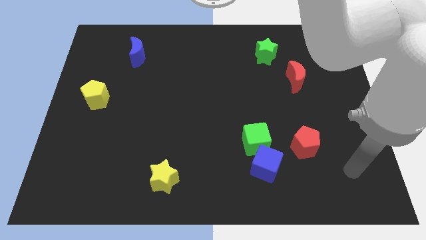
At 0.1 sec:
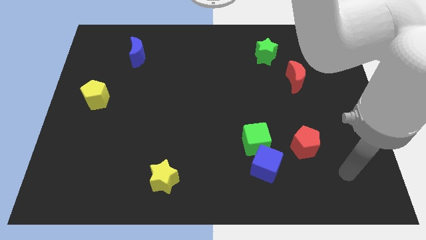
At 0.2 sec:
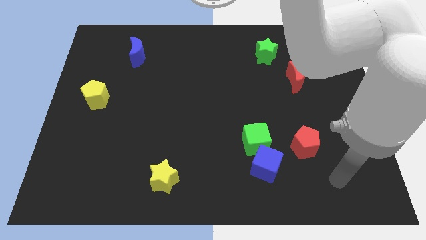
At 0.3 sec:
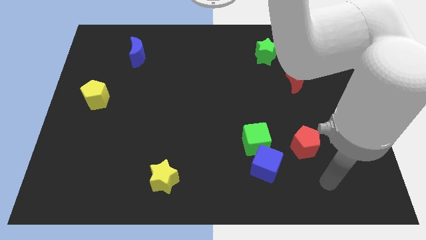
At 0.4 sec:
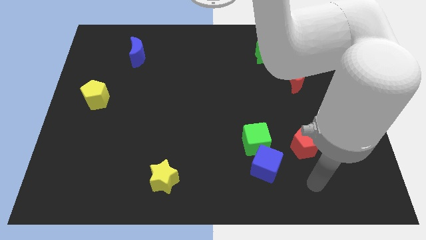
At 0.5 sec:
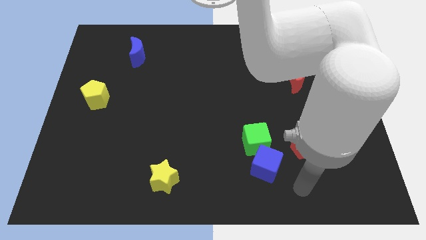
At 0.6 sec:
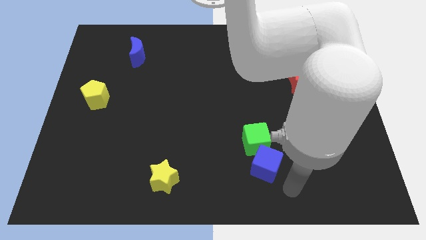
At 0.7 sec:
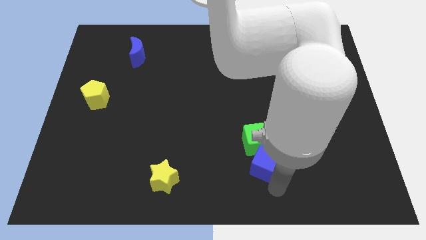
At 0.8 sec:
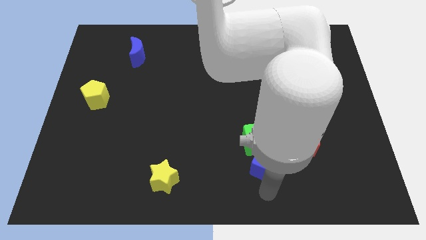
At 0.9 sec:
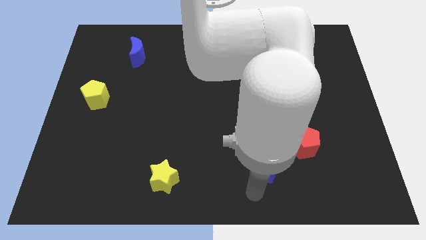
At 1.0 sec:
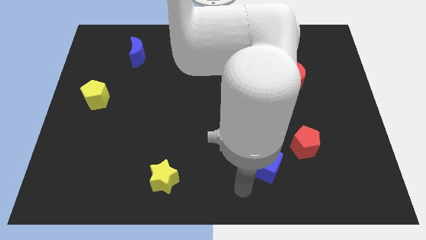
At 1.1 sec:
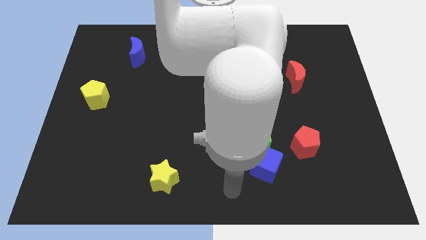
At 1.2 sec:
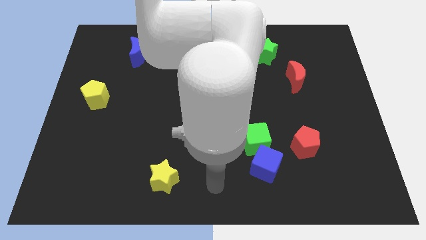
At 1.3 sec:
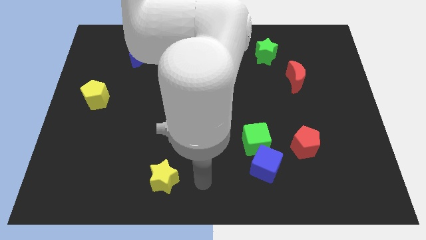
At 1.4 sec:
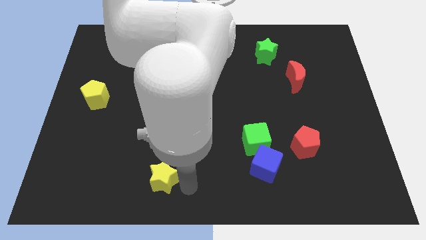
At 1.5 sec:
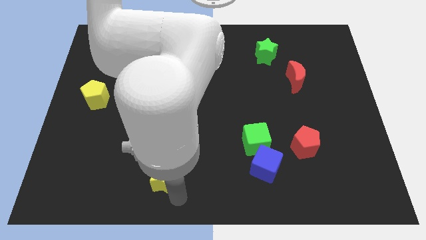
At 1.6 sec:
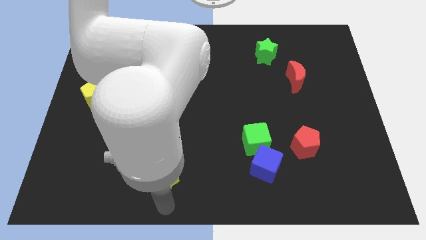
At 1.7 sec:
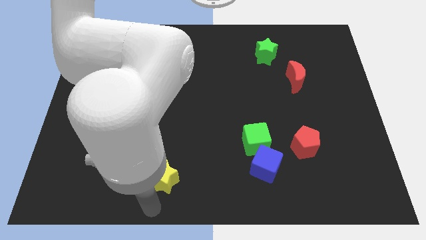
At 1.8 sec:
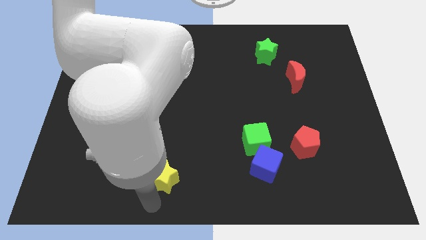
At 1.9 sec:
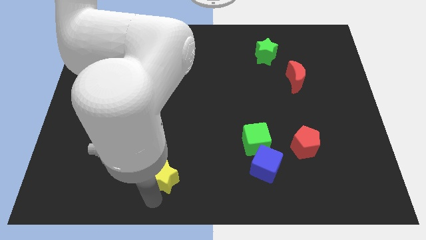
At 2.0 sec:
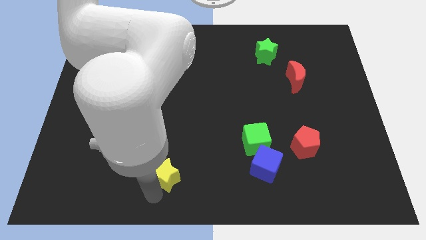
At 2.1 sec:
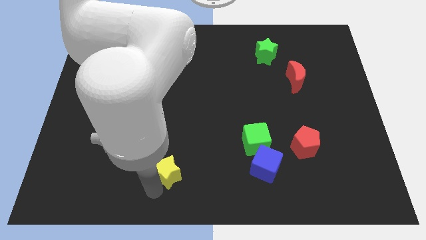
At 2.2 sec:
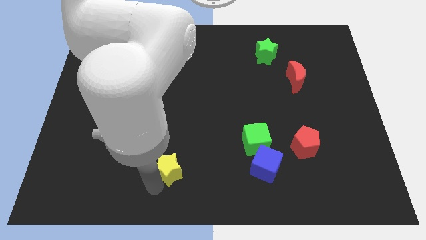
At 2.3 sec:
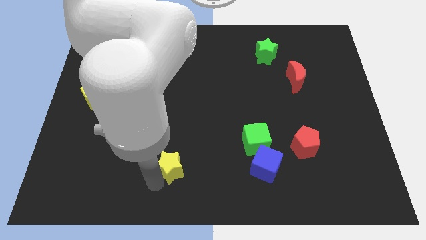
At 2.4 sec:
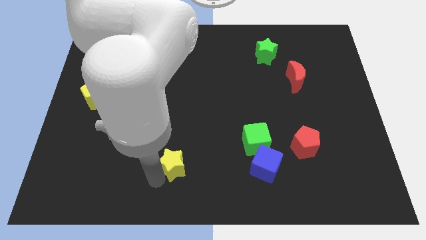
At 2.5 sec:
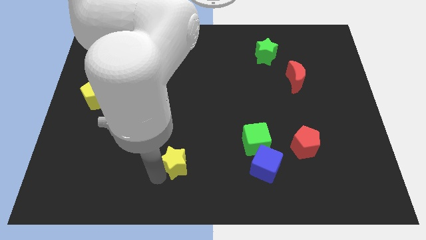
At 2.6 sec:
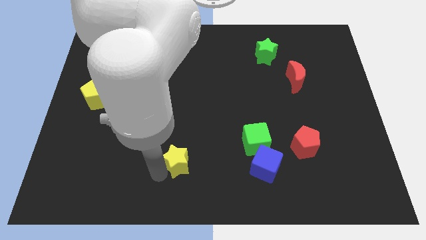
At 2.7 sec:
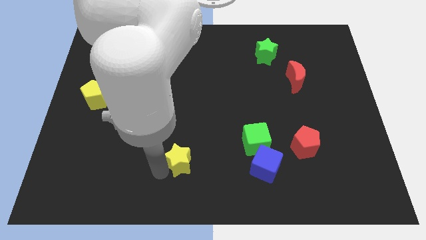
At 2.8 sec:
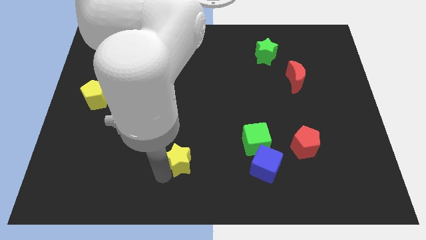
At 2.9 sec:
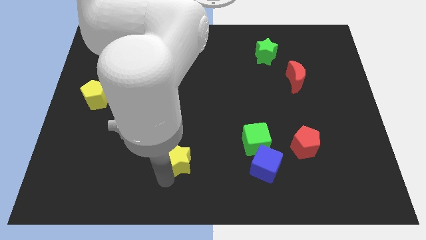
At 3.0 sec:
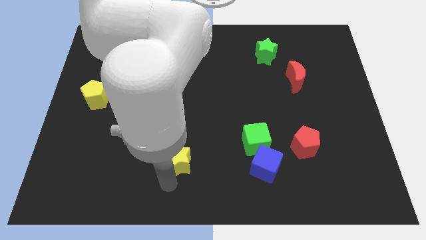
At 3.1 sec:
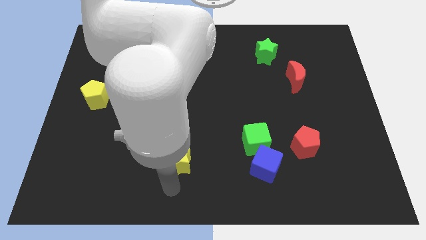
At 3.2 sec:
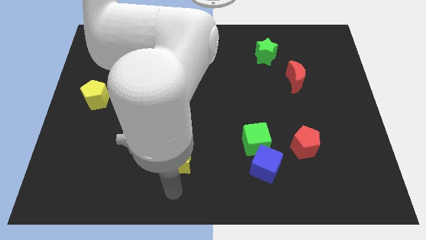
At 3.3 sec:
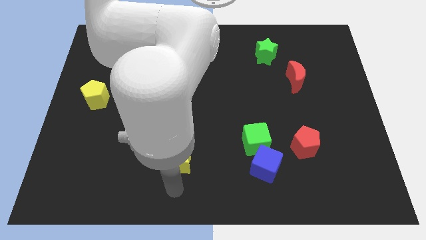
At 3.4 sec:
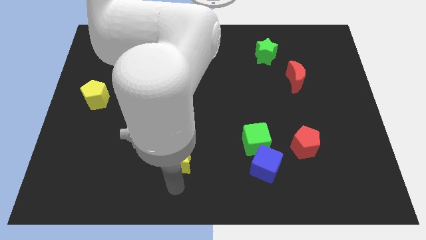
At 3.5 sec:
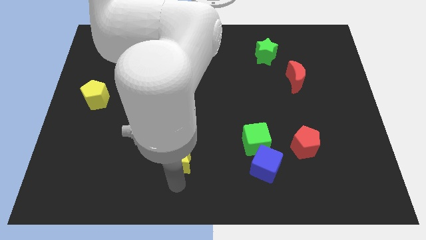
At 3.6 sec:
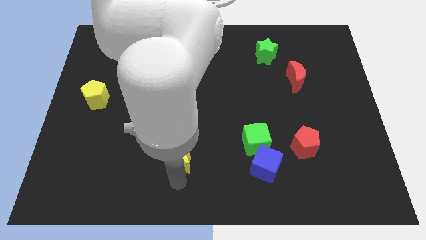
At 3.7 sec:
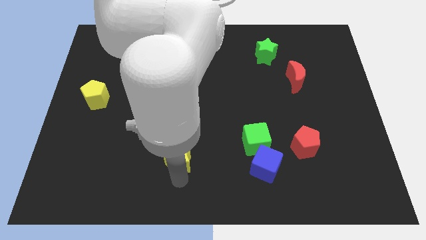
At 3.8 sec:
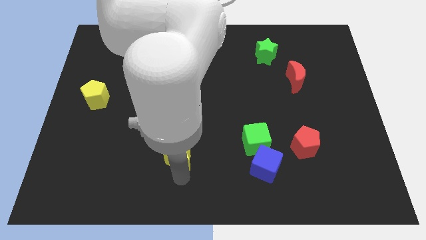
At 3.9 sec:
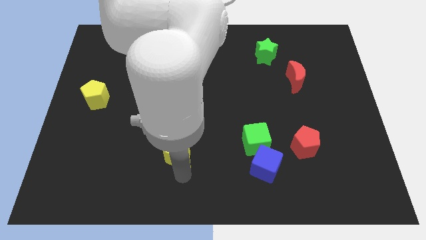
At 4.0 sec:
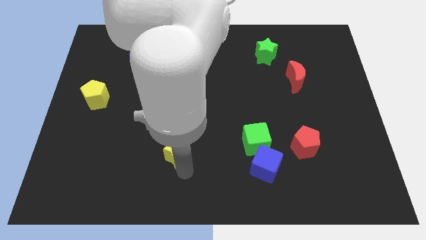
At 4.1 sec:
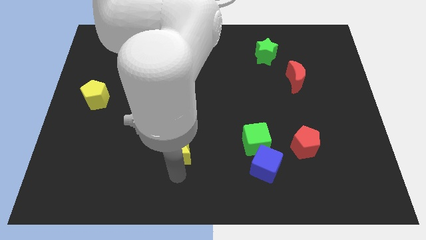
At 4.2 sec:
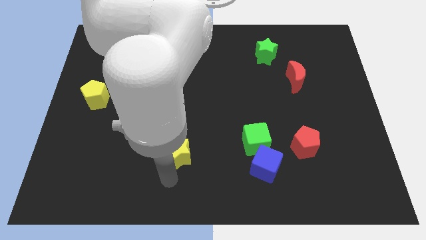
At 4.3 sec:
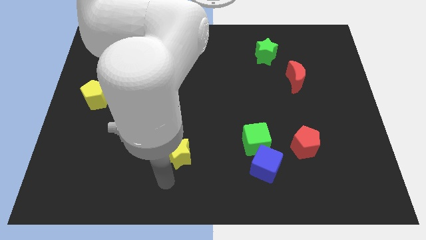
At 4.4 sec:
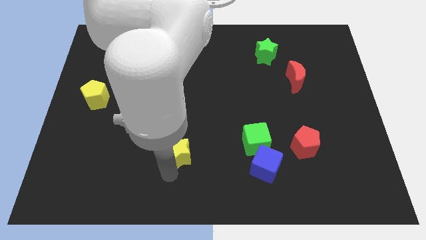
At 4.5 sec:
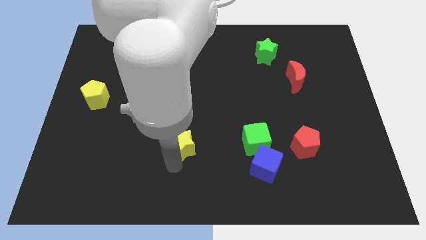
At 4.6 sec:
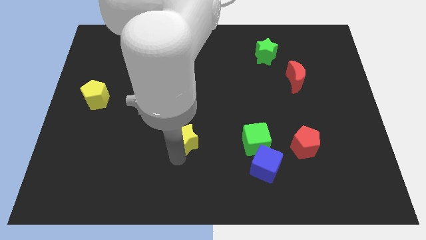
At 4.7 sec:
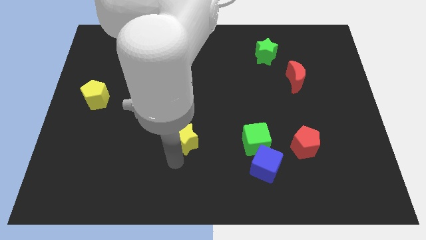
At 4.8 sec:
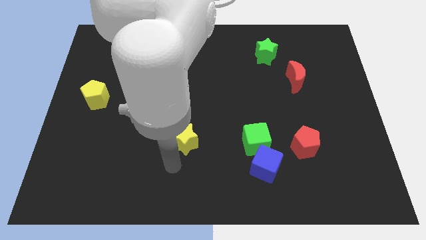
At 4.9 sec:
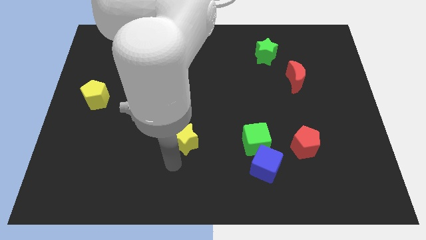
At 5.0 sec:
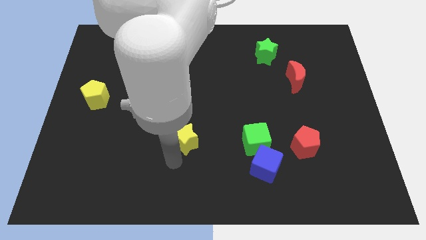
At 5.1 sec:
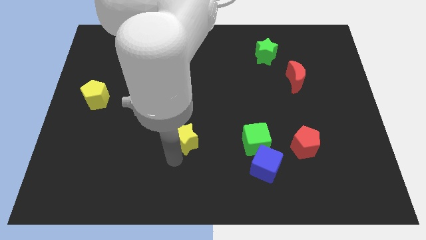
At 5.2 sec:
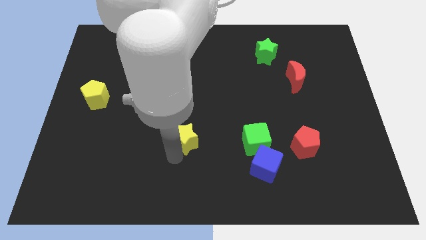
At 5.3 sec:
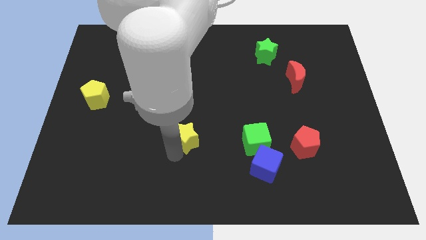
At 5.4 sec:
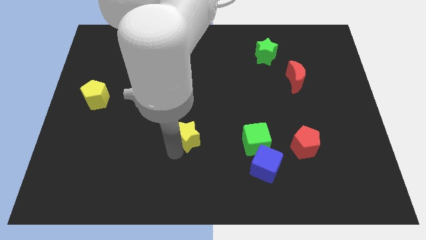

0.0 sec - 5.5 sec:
move the yellow star to the middle of the board

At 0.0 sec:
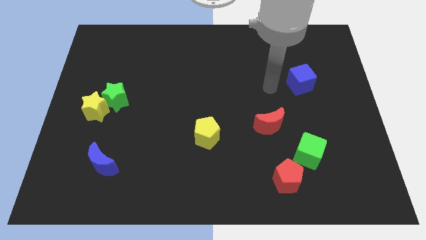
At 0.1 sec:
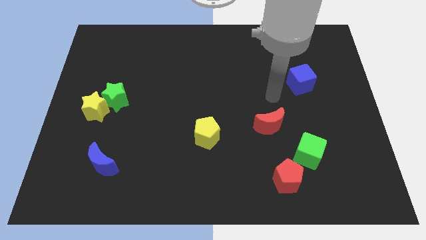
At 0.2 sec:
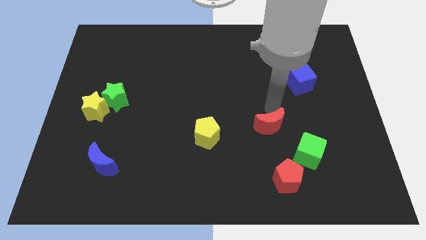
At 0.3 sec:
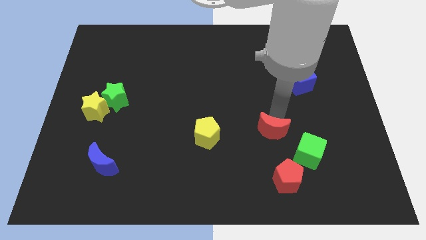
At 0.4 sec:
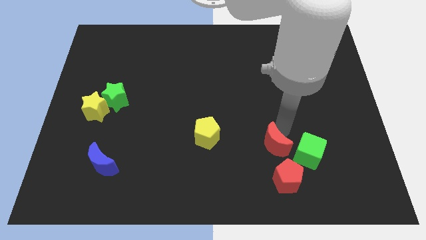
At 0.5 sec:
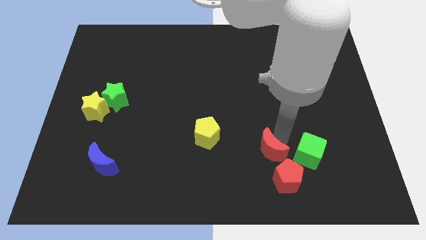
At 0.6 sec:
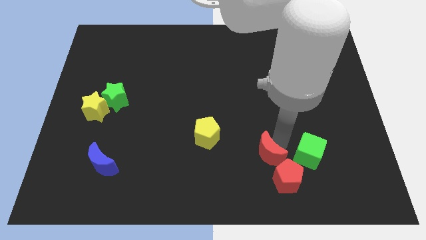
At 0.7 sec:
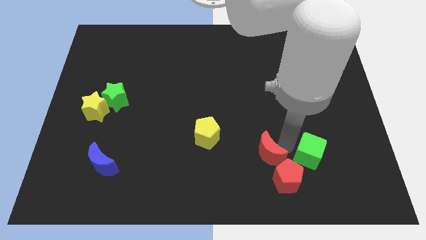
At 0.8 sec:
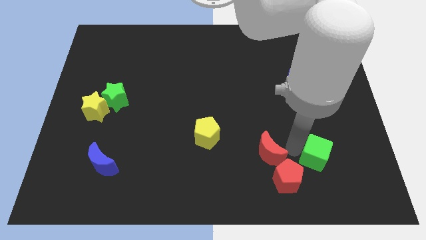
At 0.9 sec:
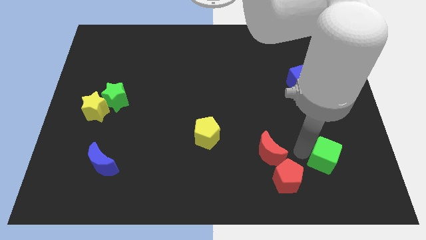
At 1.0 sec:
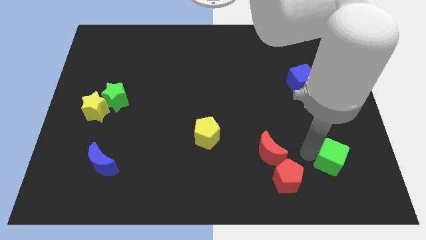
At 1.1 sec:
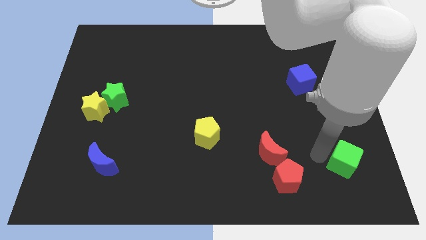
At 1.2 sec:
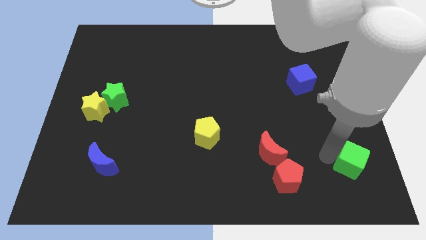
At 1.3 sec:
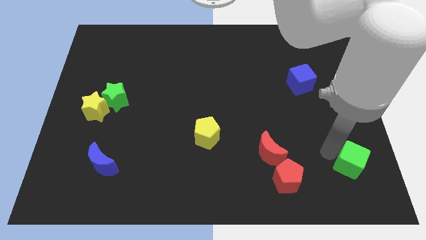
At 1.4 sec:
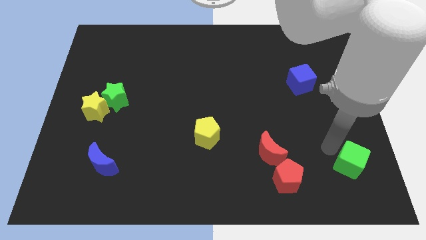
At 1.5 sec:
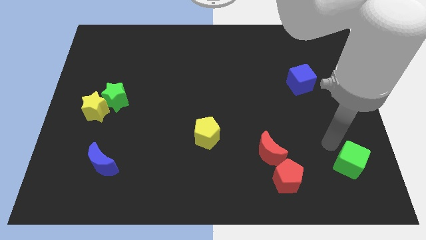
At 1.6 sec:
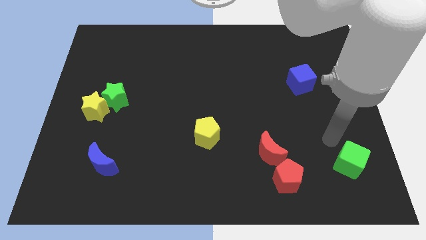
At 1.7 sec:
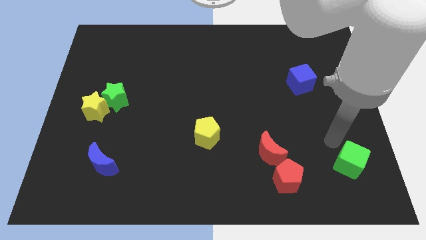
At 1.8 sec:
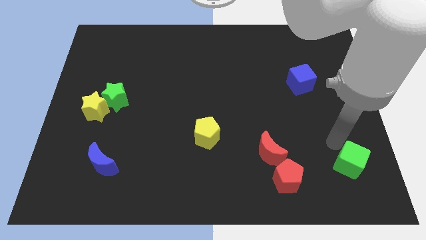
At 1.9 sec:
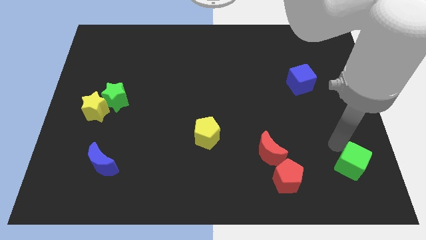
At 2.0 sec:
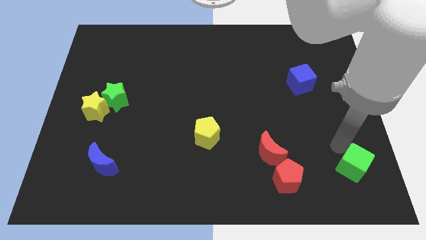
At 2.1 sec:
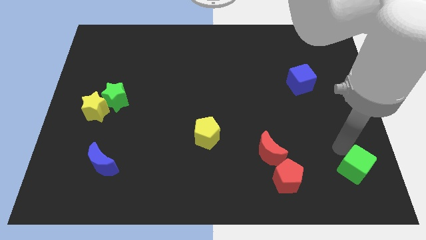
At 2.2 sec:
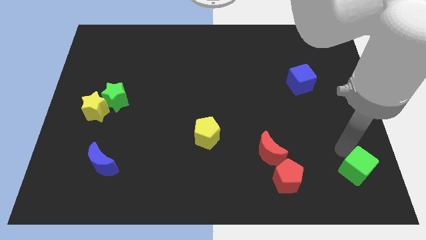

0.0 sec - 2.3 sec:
move the green cube to the bottom right corner
